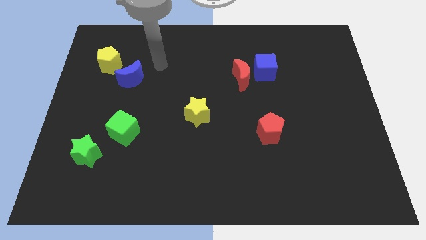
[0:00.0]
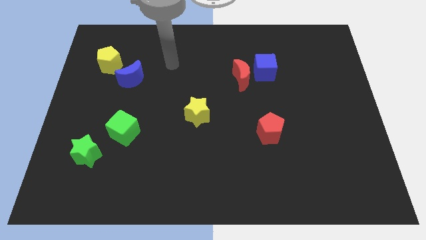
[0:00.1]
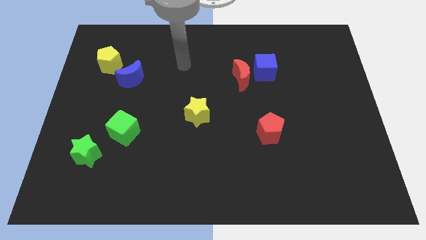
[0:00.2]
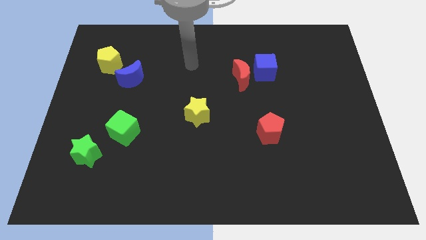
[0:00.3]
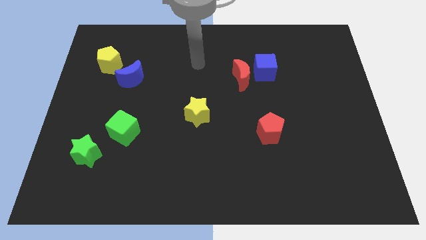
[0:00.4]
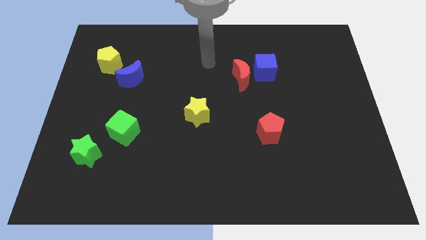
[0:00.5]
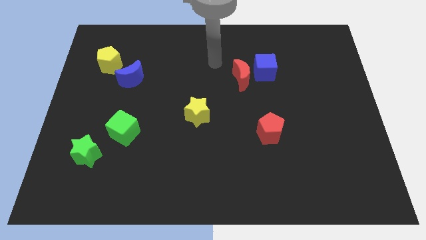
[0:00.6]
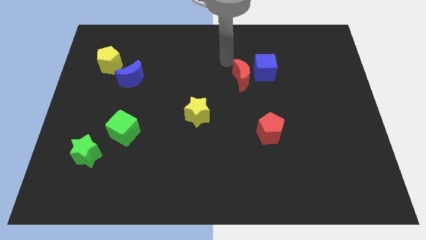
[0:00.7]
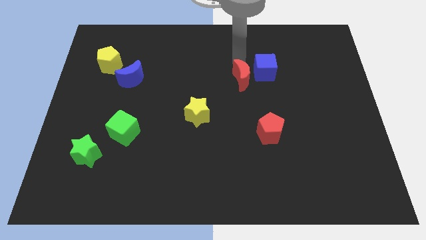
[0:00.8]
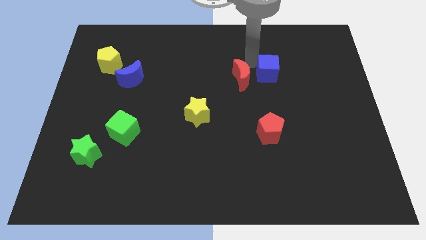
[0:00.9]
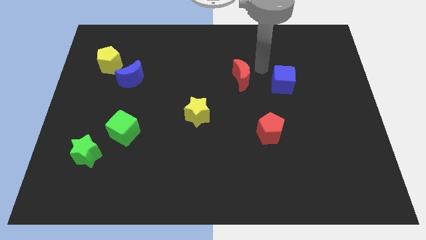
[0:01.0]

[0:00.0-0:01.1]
separate the red moon from the blue cube

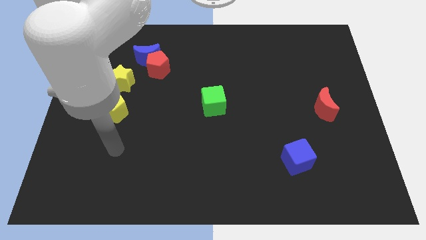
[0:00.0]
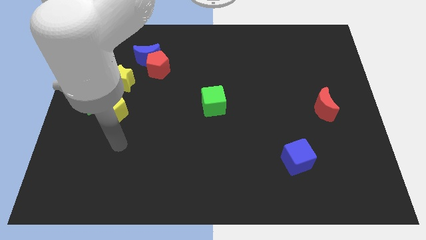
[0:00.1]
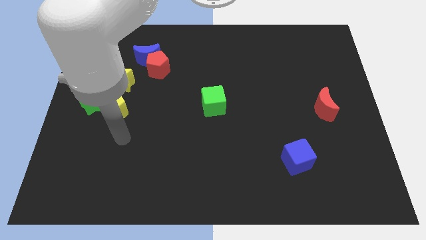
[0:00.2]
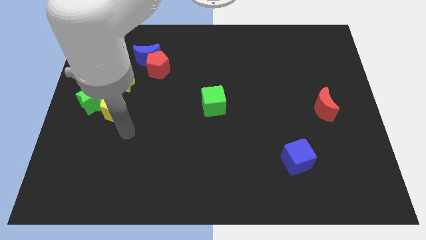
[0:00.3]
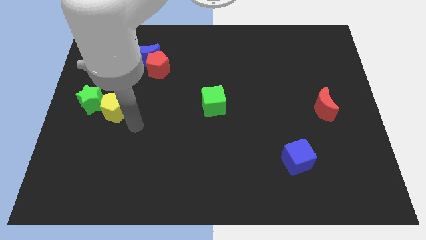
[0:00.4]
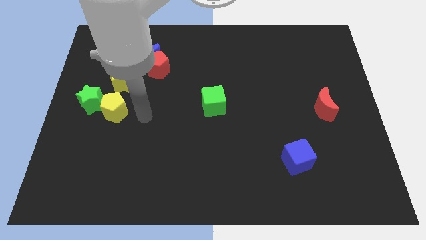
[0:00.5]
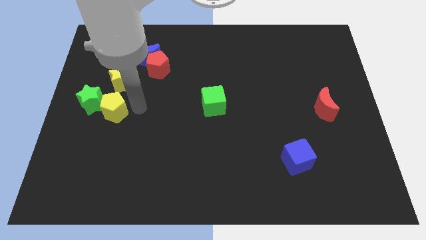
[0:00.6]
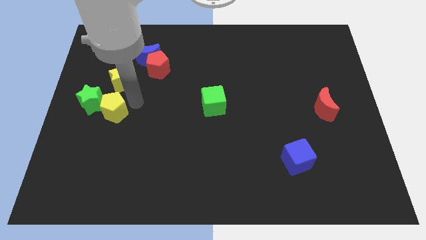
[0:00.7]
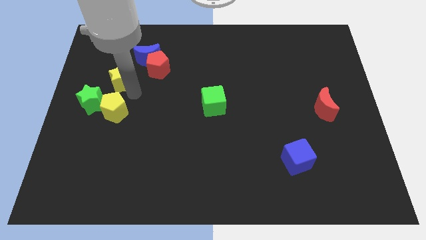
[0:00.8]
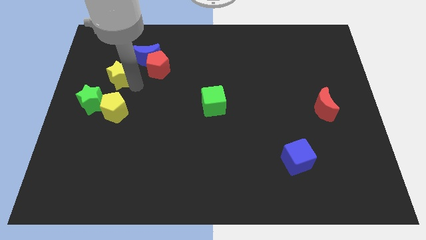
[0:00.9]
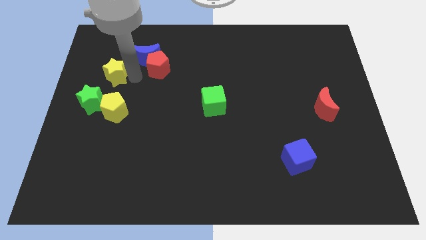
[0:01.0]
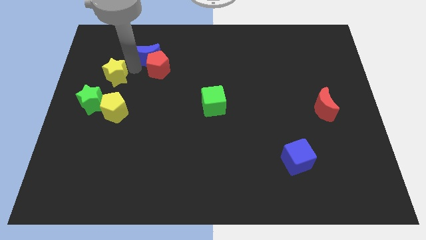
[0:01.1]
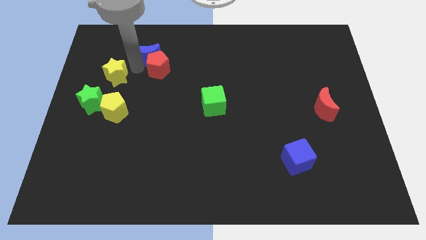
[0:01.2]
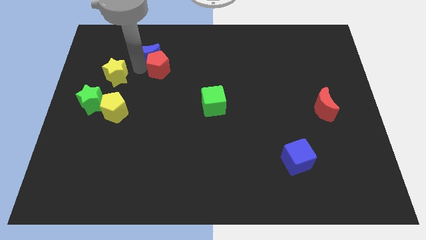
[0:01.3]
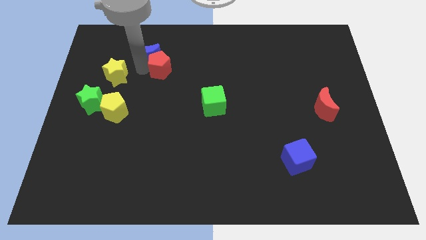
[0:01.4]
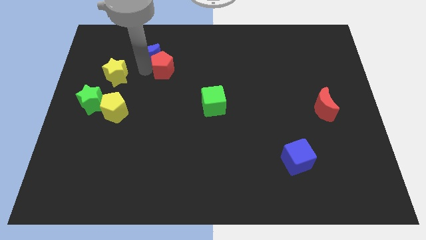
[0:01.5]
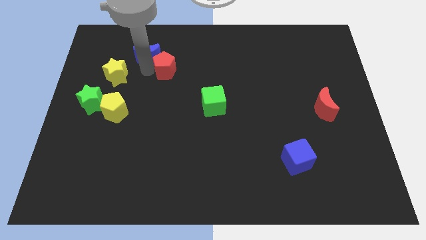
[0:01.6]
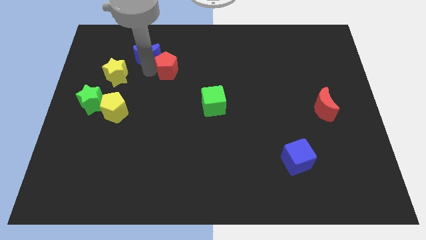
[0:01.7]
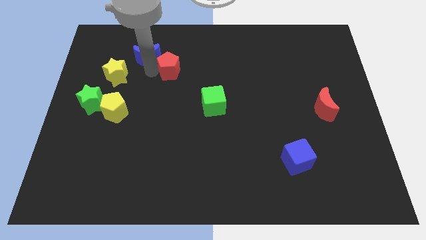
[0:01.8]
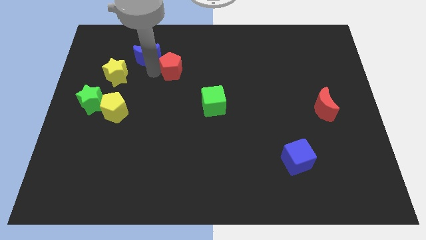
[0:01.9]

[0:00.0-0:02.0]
move the red pentagon away from the blue moon and yellow star

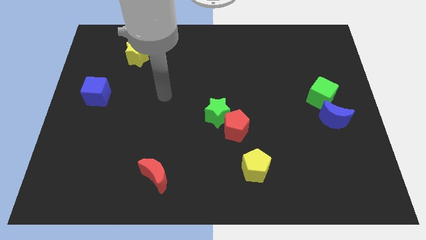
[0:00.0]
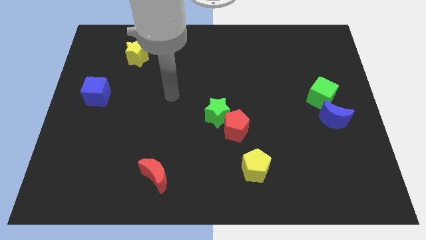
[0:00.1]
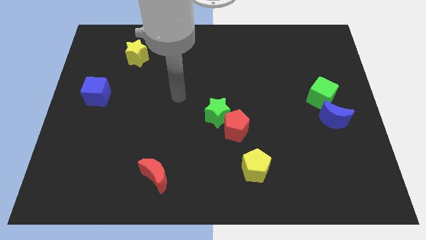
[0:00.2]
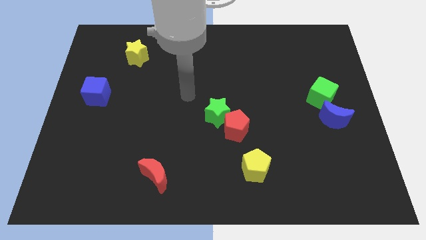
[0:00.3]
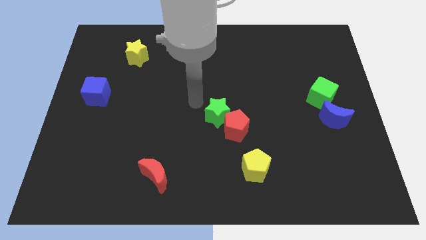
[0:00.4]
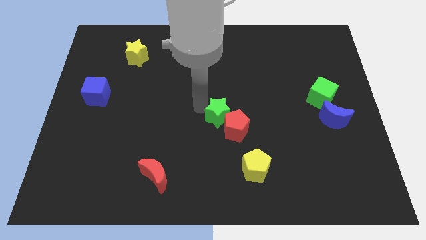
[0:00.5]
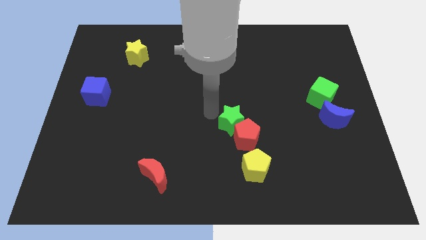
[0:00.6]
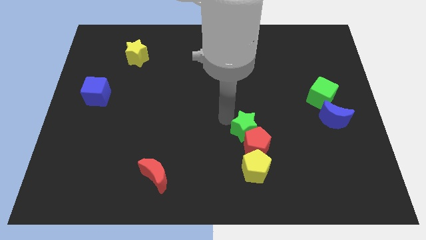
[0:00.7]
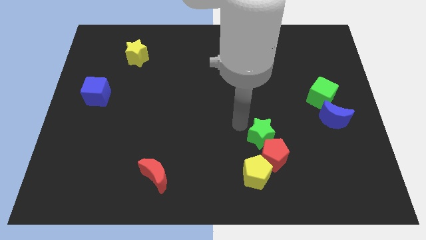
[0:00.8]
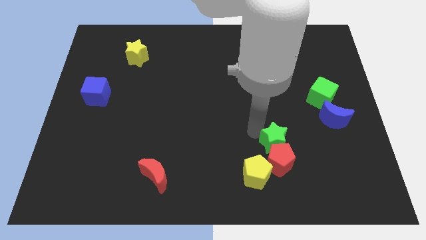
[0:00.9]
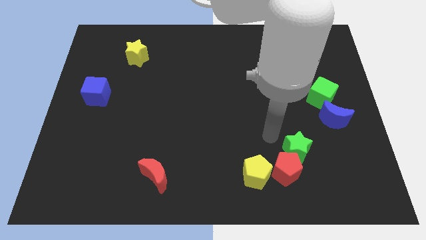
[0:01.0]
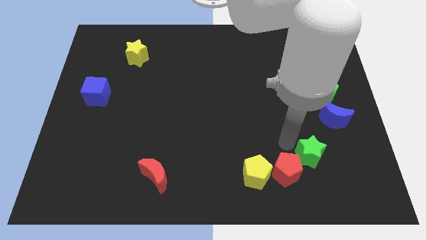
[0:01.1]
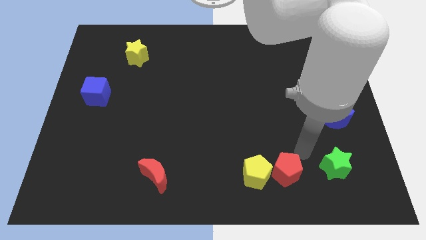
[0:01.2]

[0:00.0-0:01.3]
move the red pentagon away from the green star

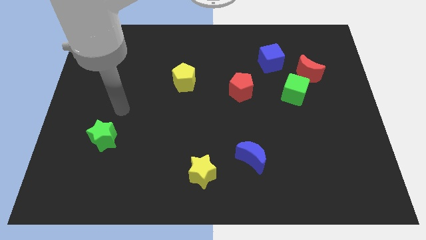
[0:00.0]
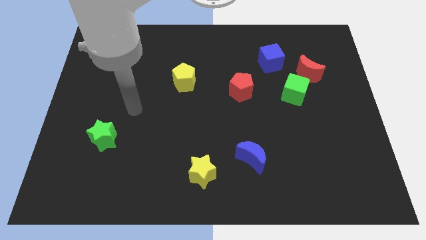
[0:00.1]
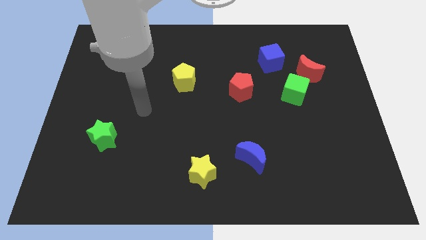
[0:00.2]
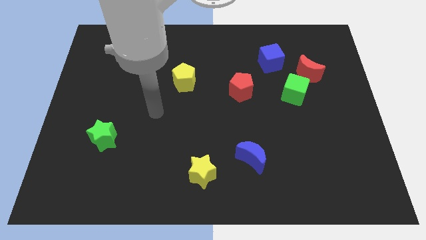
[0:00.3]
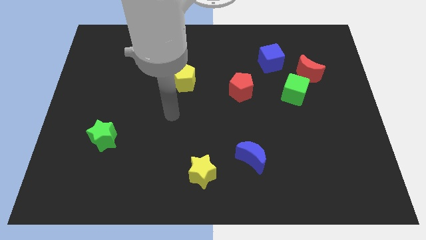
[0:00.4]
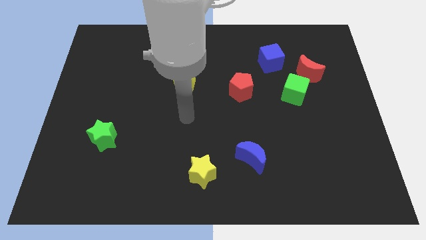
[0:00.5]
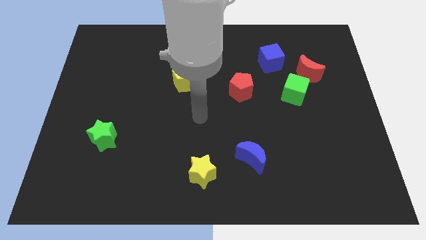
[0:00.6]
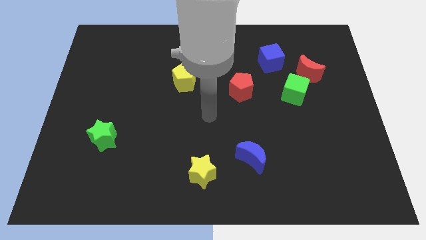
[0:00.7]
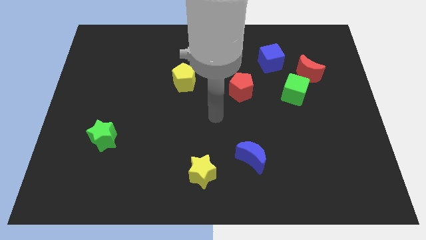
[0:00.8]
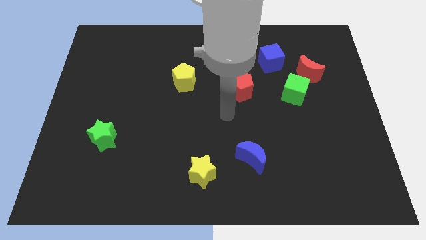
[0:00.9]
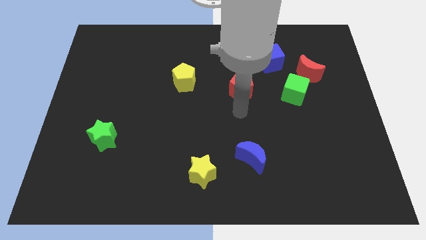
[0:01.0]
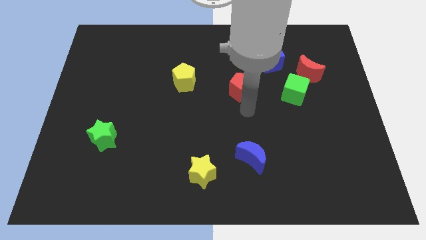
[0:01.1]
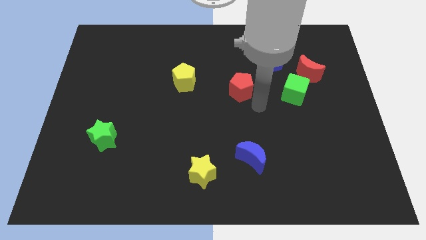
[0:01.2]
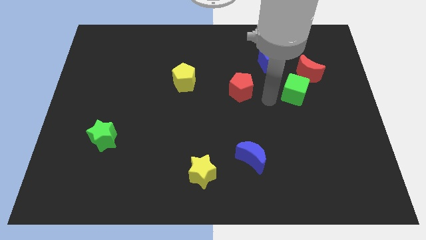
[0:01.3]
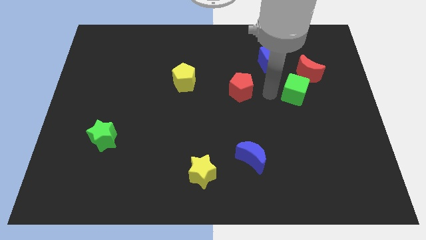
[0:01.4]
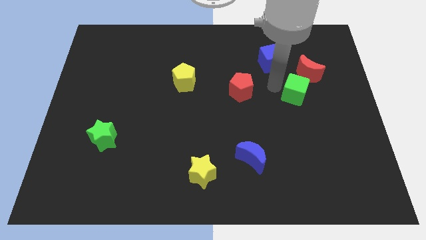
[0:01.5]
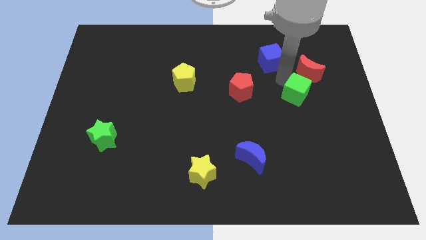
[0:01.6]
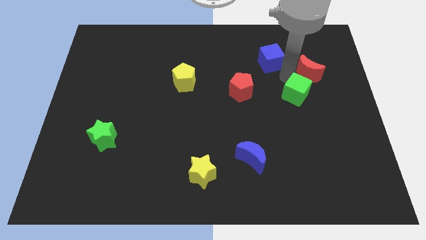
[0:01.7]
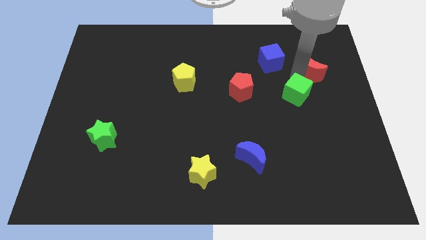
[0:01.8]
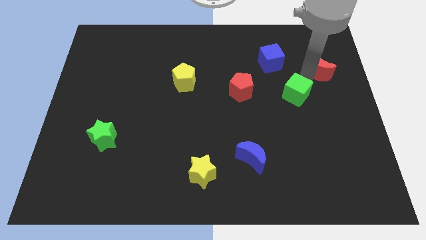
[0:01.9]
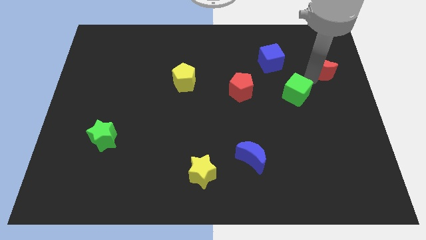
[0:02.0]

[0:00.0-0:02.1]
pull the green cube apart from the red moon

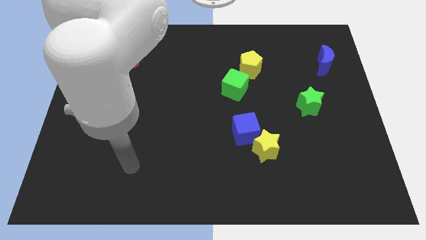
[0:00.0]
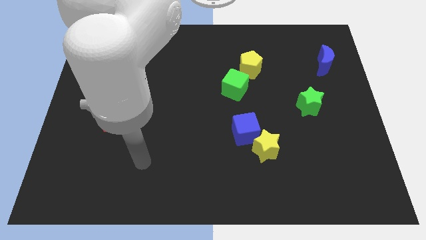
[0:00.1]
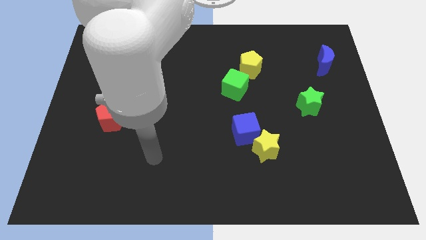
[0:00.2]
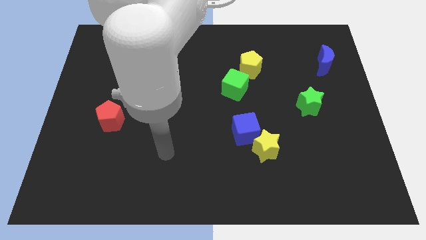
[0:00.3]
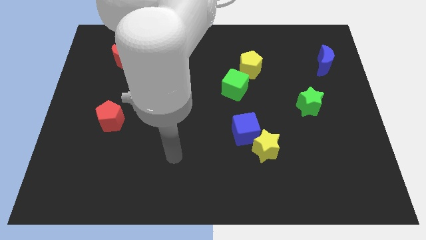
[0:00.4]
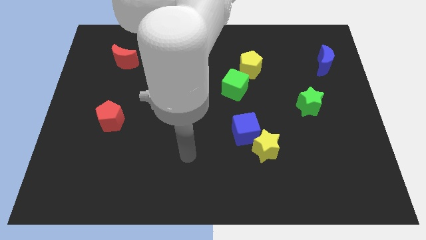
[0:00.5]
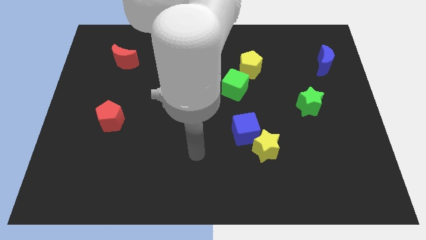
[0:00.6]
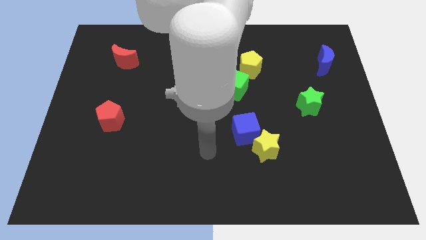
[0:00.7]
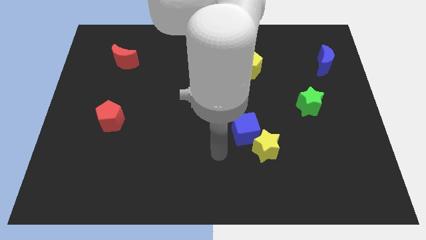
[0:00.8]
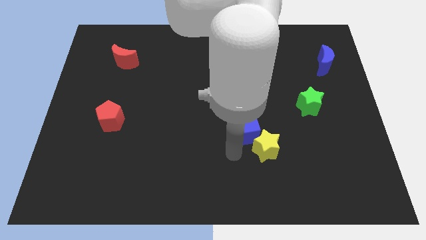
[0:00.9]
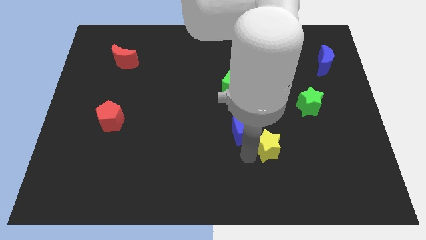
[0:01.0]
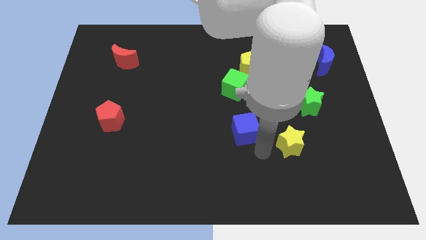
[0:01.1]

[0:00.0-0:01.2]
pull the blue cube apart from the yellow star

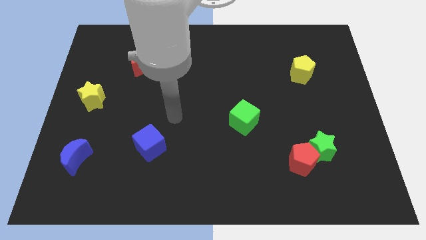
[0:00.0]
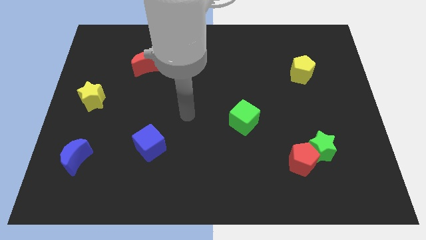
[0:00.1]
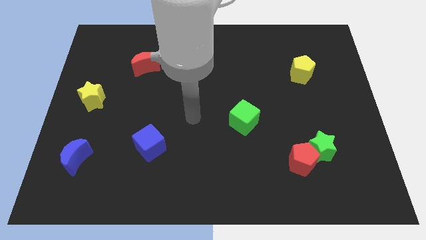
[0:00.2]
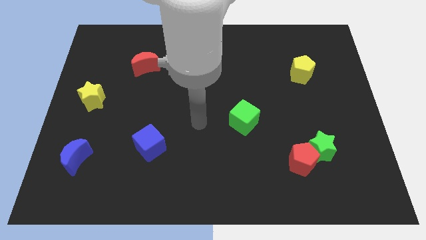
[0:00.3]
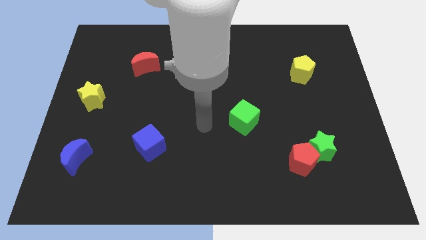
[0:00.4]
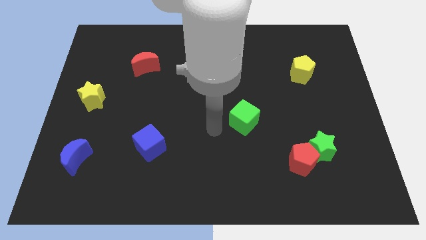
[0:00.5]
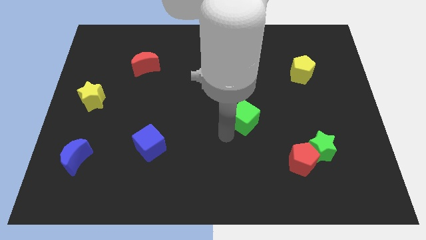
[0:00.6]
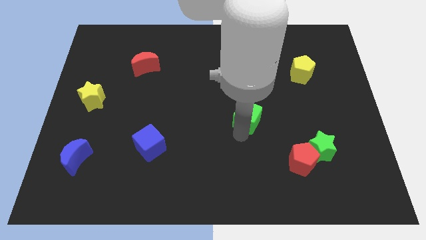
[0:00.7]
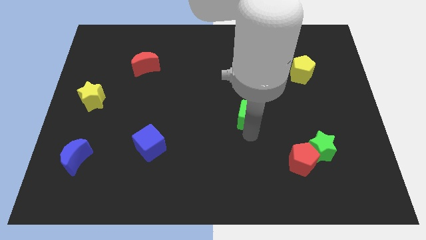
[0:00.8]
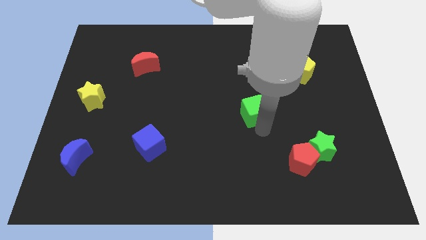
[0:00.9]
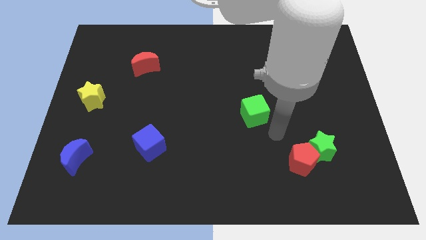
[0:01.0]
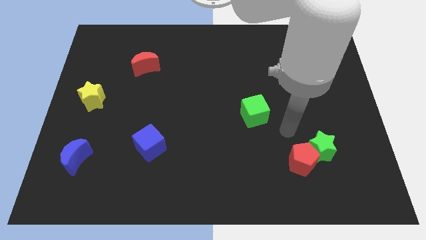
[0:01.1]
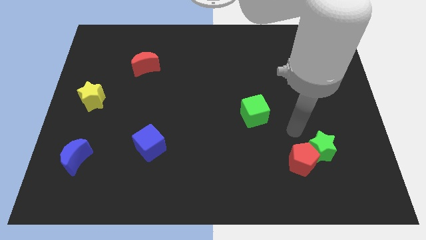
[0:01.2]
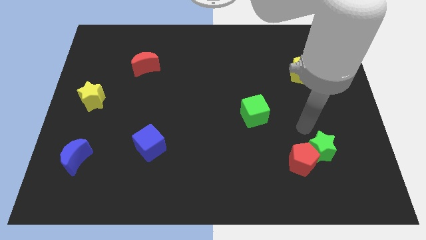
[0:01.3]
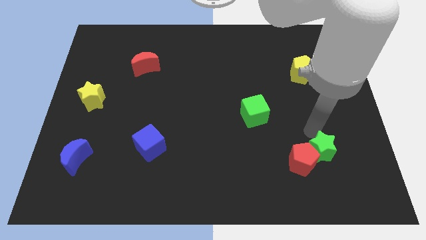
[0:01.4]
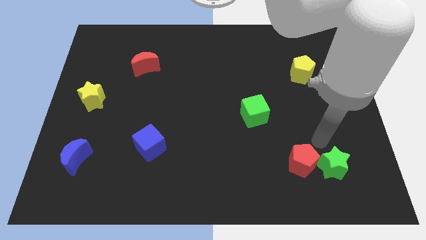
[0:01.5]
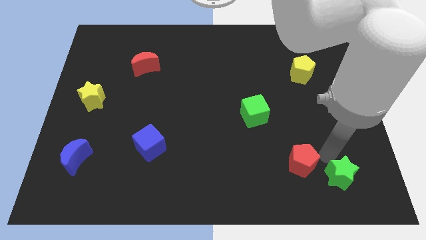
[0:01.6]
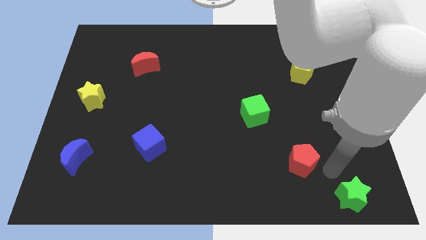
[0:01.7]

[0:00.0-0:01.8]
separate the red pentagon from the green star
